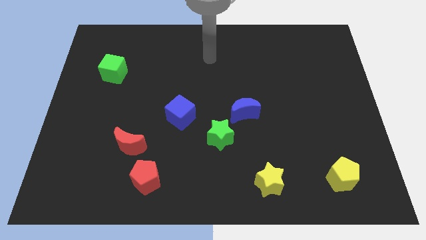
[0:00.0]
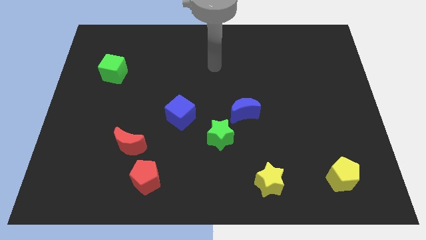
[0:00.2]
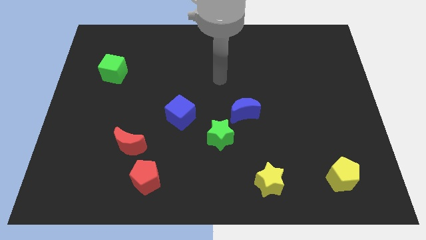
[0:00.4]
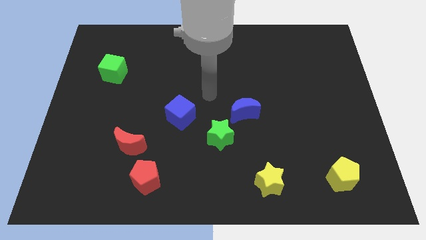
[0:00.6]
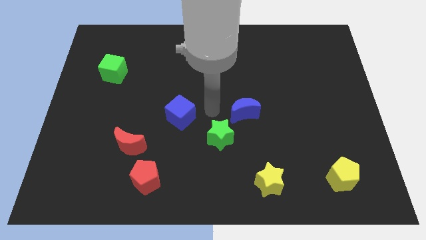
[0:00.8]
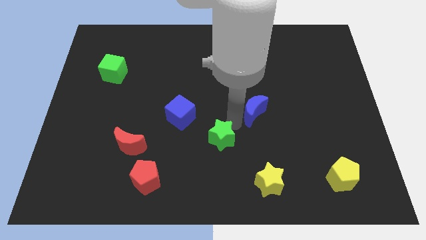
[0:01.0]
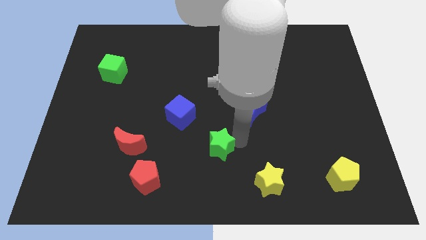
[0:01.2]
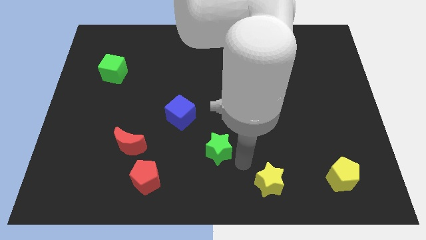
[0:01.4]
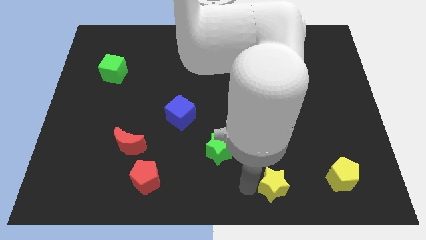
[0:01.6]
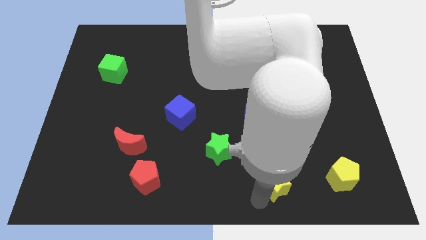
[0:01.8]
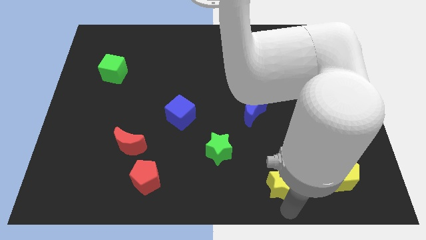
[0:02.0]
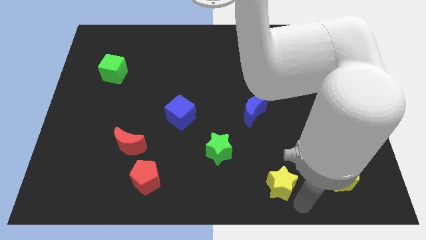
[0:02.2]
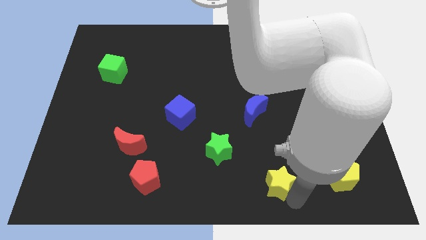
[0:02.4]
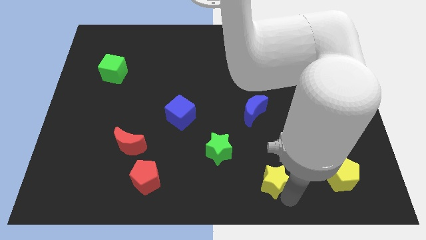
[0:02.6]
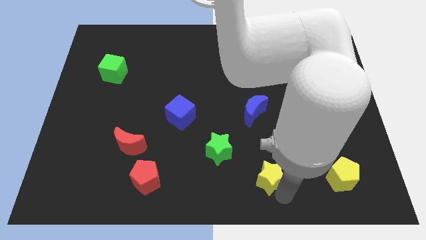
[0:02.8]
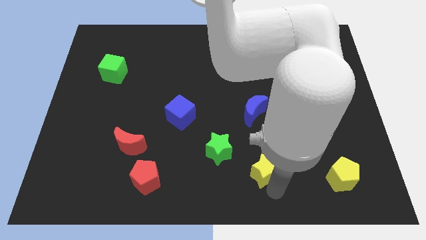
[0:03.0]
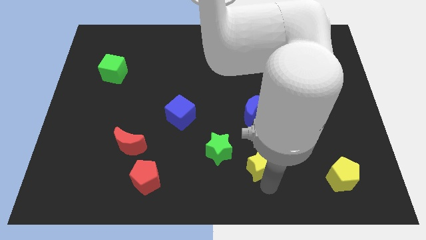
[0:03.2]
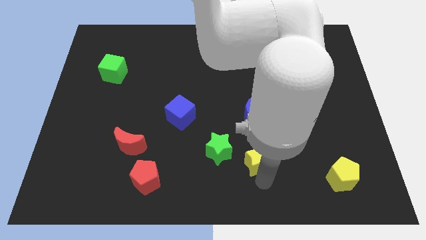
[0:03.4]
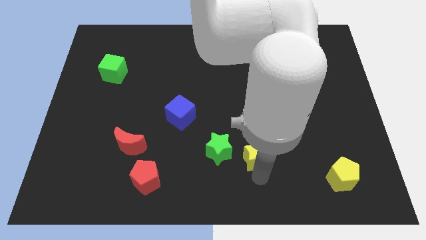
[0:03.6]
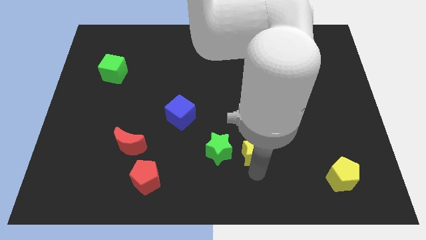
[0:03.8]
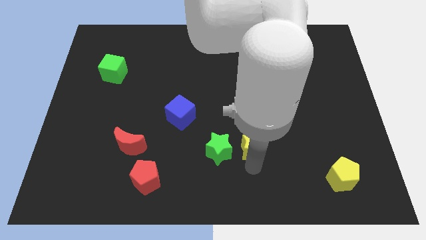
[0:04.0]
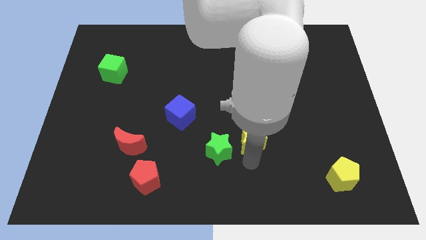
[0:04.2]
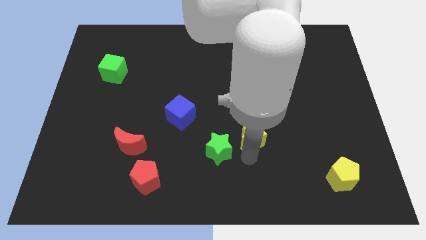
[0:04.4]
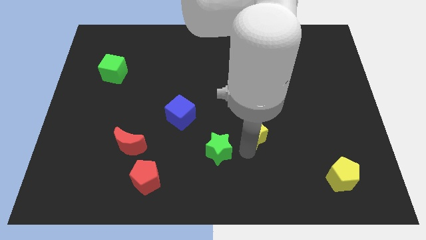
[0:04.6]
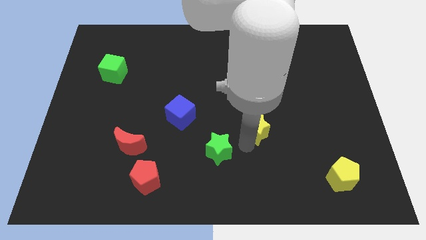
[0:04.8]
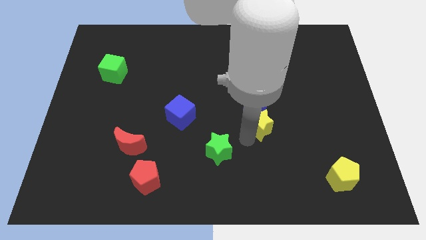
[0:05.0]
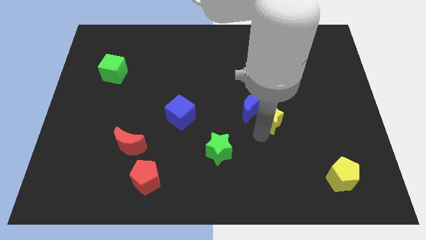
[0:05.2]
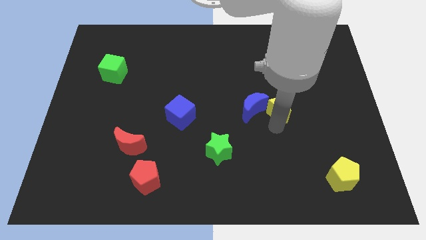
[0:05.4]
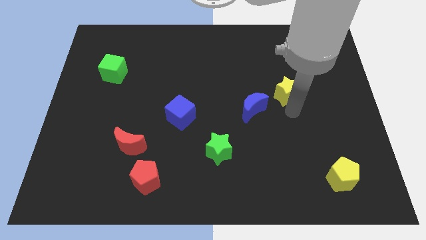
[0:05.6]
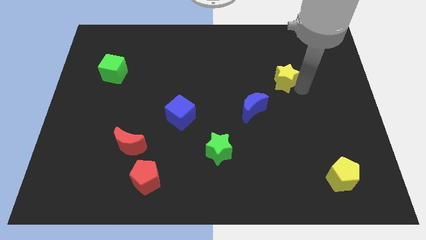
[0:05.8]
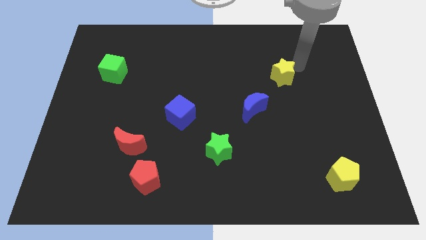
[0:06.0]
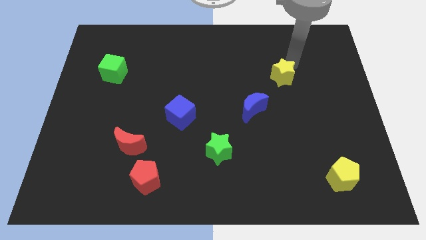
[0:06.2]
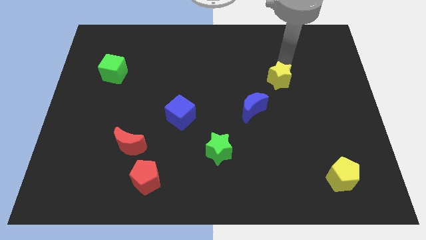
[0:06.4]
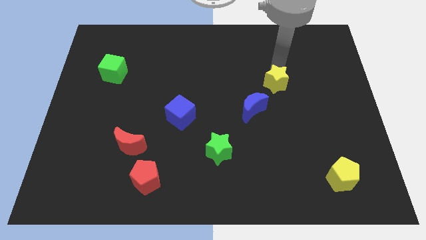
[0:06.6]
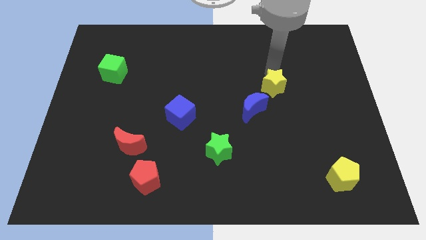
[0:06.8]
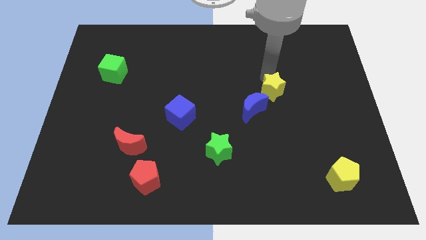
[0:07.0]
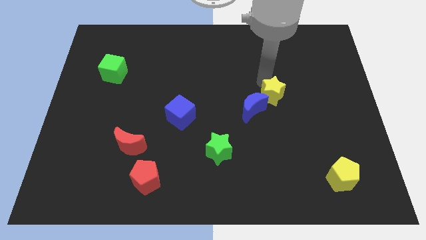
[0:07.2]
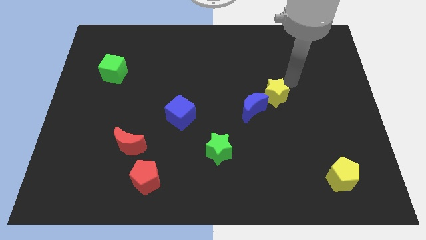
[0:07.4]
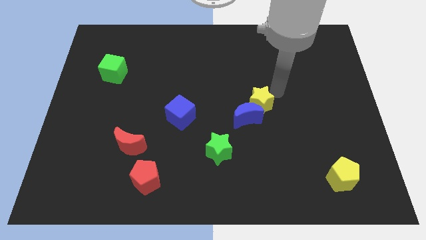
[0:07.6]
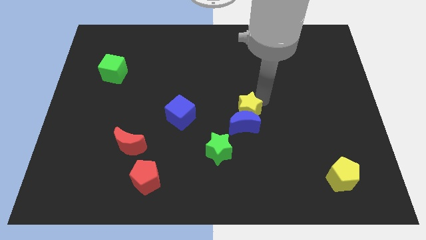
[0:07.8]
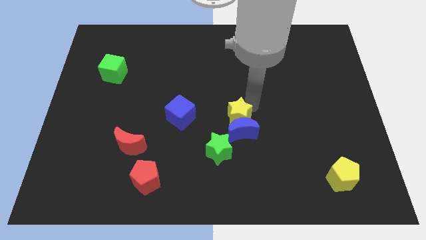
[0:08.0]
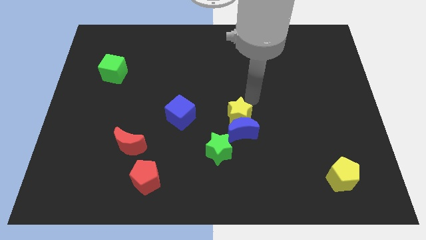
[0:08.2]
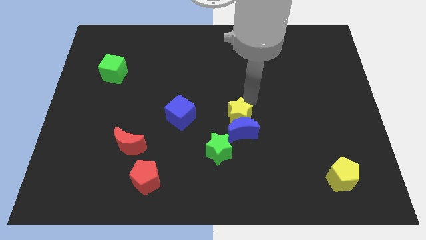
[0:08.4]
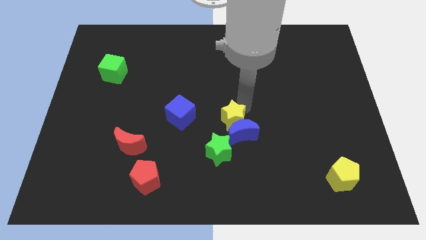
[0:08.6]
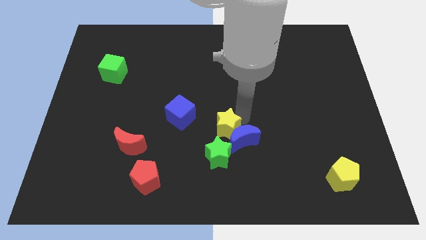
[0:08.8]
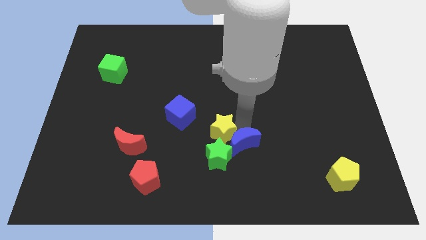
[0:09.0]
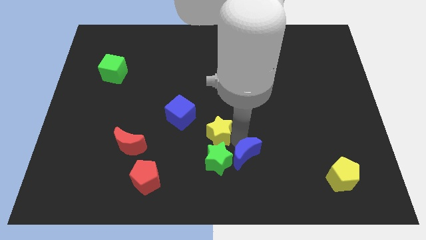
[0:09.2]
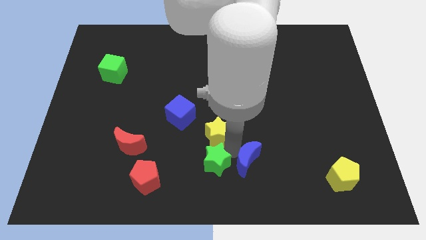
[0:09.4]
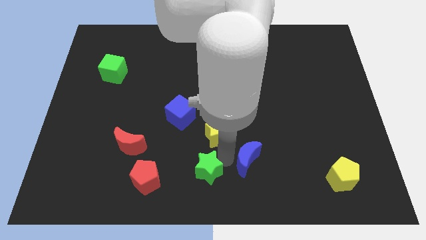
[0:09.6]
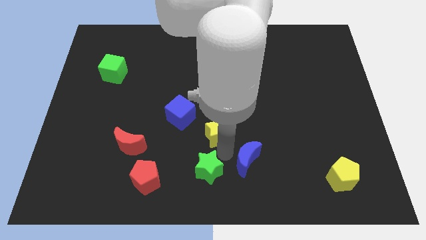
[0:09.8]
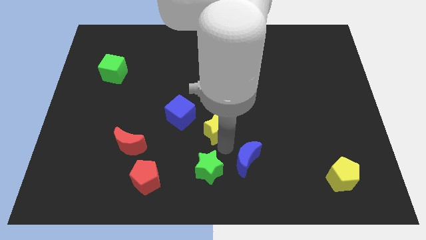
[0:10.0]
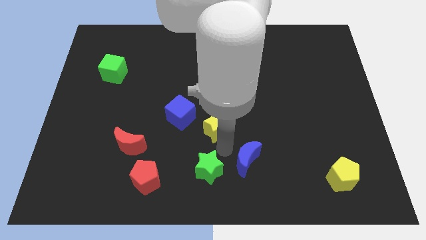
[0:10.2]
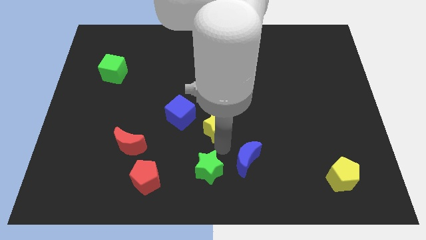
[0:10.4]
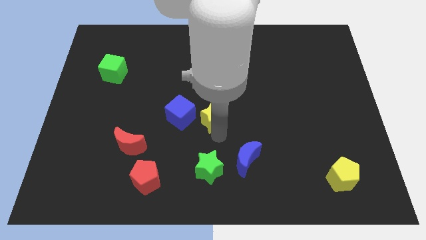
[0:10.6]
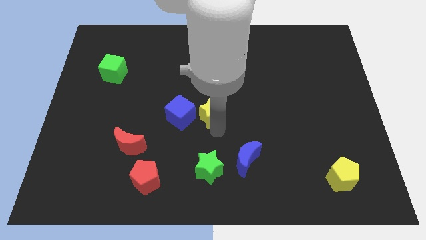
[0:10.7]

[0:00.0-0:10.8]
put the yellow star to the top right of the blue cube

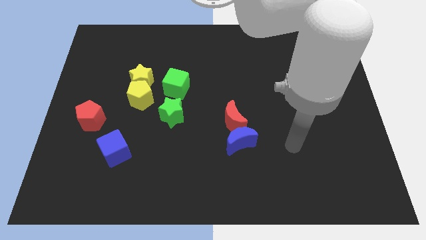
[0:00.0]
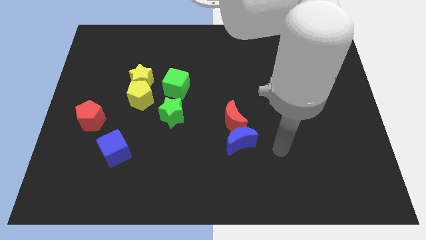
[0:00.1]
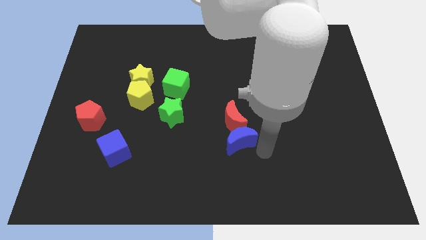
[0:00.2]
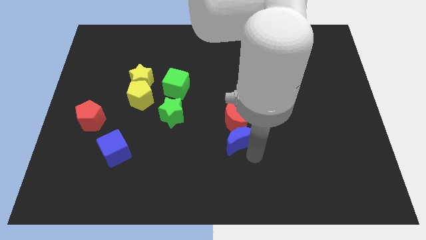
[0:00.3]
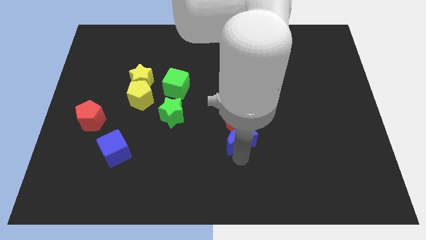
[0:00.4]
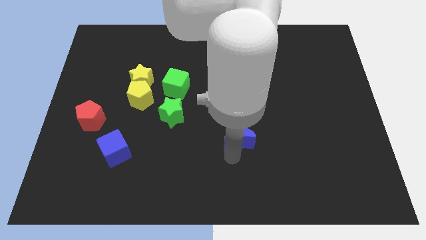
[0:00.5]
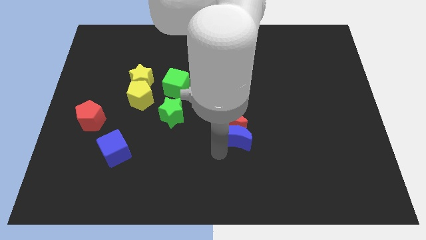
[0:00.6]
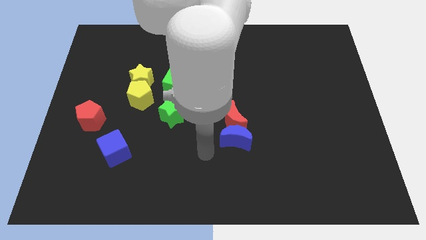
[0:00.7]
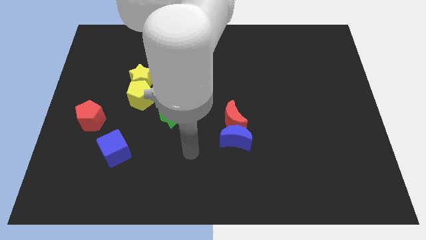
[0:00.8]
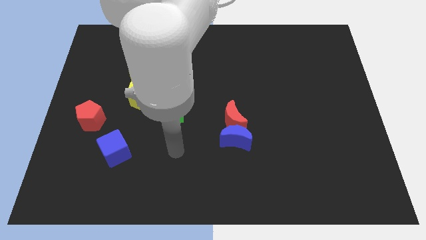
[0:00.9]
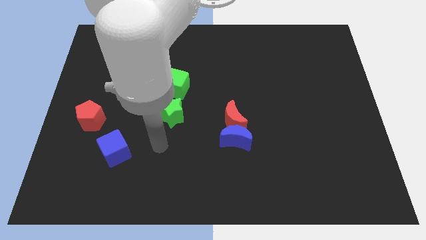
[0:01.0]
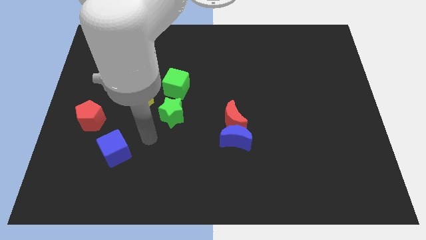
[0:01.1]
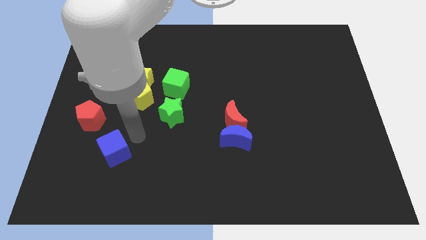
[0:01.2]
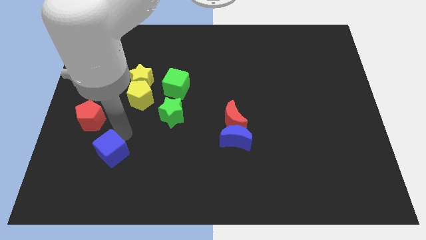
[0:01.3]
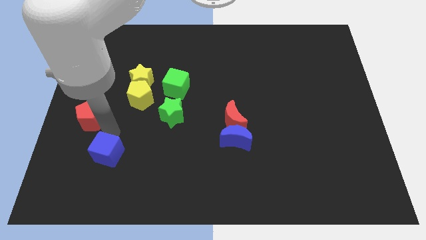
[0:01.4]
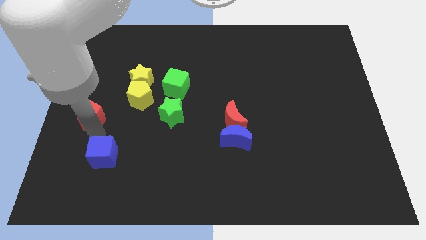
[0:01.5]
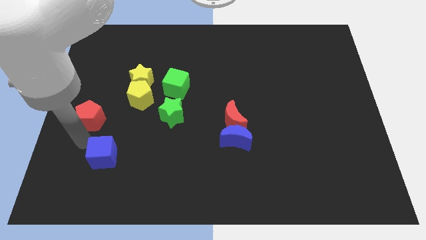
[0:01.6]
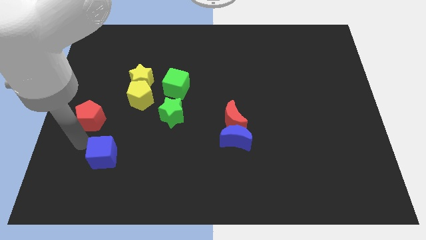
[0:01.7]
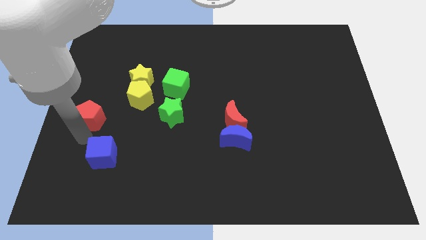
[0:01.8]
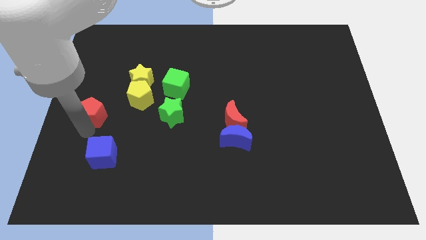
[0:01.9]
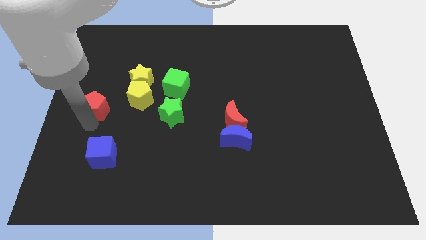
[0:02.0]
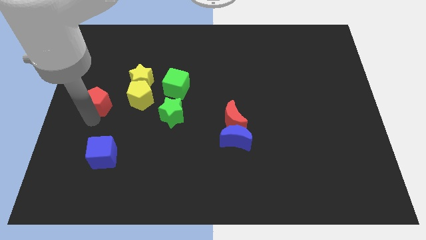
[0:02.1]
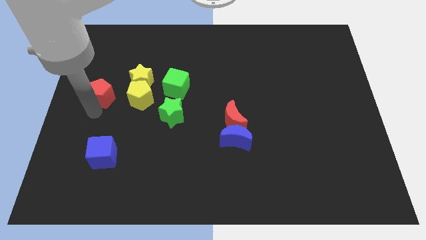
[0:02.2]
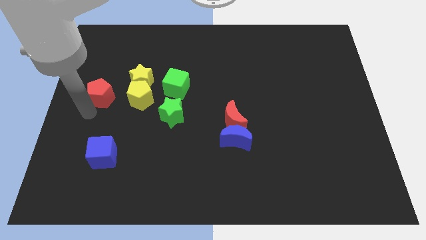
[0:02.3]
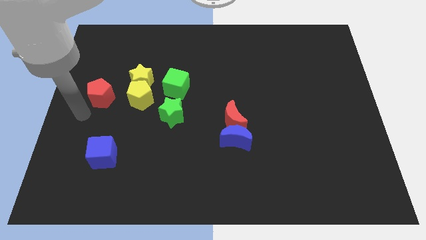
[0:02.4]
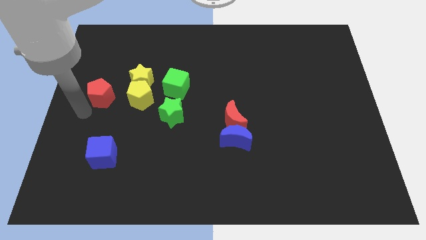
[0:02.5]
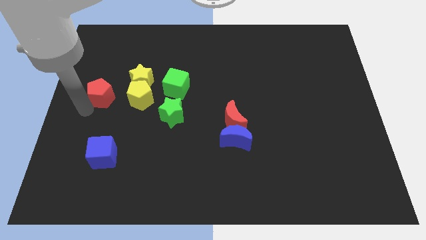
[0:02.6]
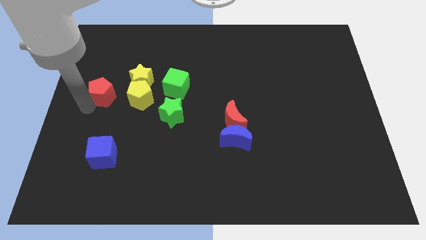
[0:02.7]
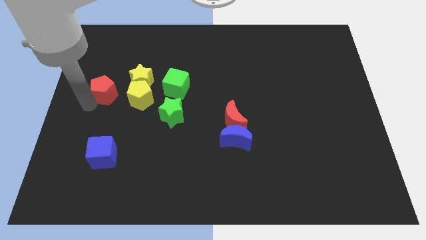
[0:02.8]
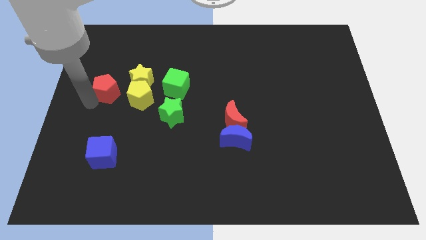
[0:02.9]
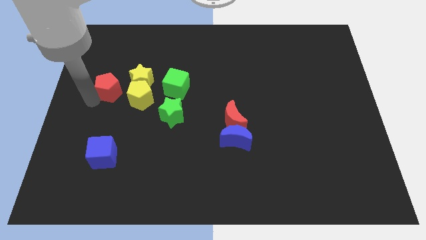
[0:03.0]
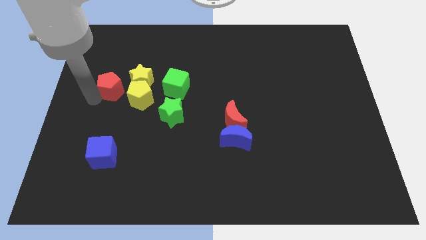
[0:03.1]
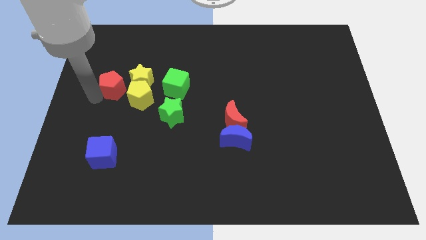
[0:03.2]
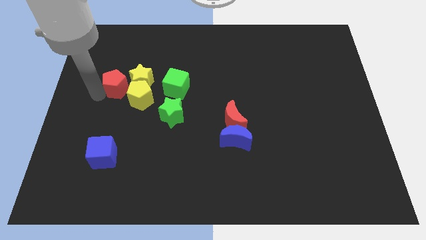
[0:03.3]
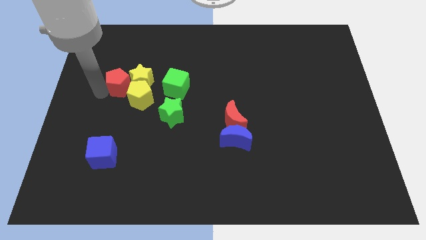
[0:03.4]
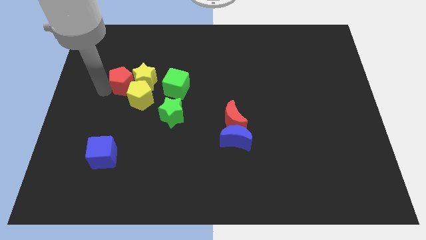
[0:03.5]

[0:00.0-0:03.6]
push the red pentagon to the top of the yellow pentagon
